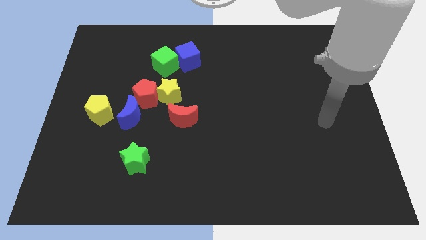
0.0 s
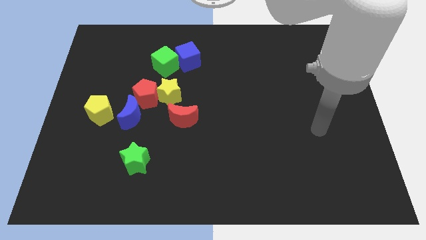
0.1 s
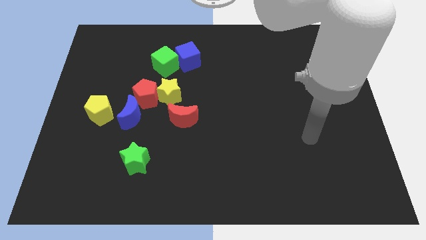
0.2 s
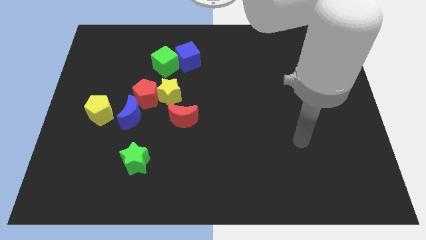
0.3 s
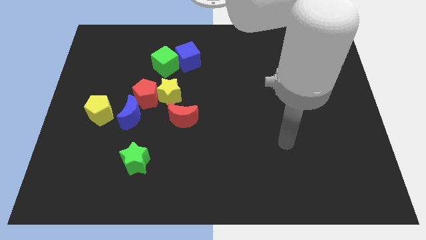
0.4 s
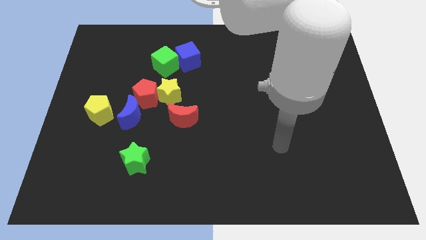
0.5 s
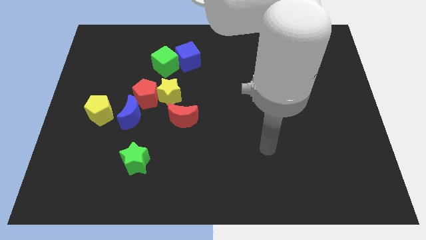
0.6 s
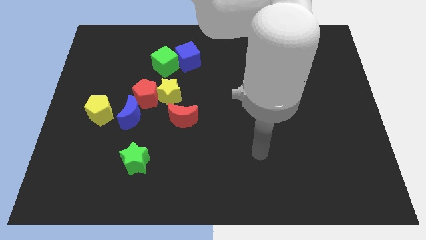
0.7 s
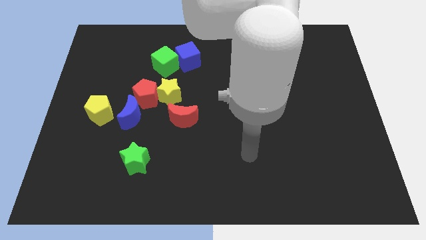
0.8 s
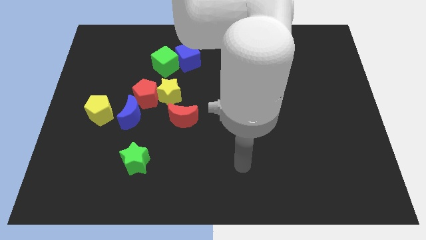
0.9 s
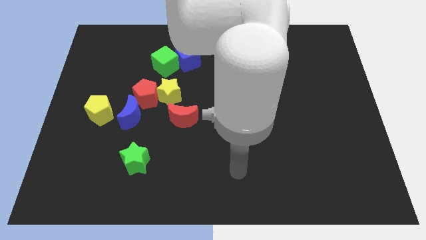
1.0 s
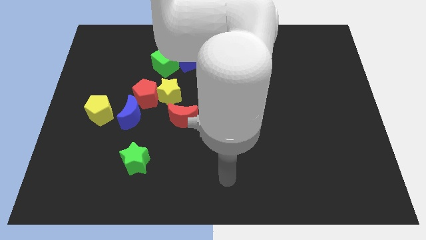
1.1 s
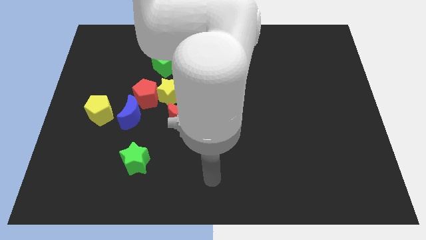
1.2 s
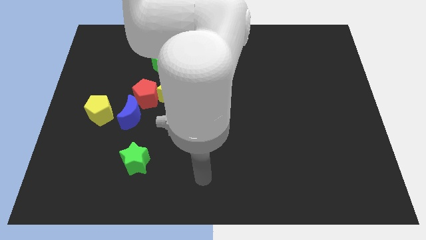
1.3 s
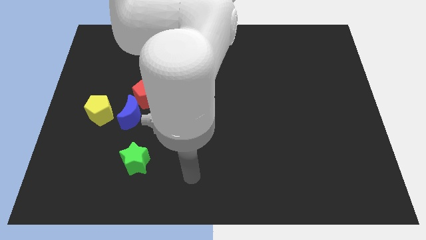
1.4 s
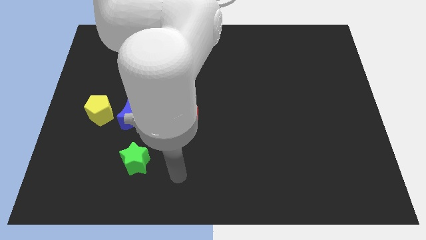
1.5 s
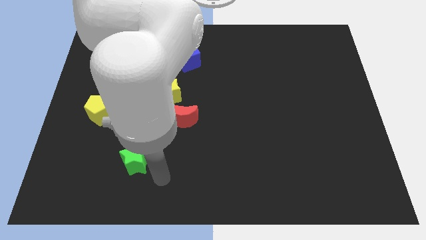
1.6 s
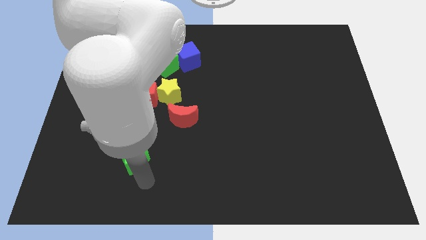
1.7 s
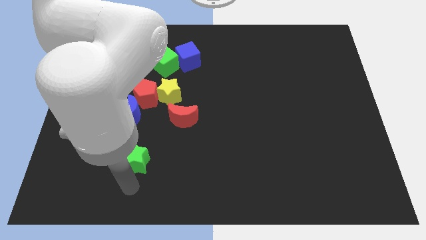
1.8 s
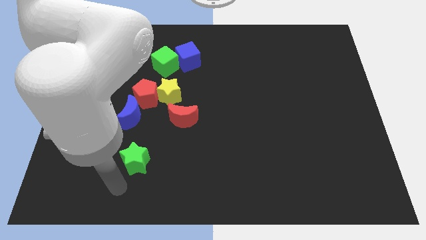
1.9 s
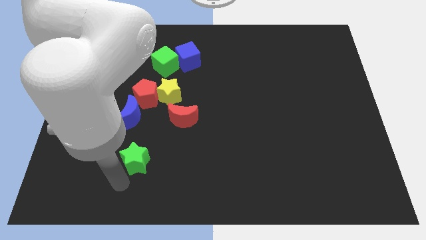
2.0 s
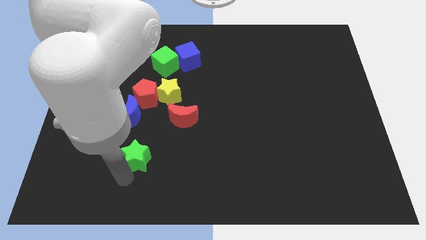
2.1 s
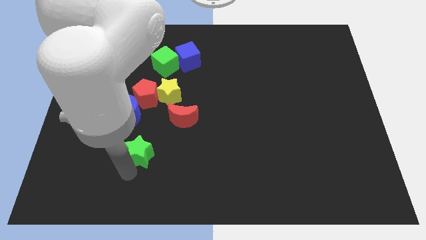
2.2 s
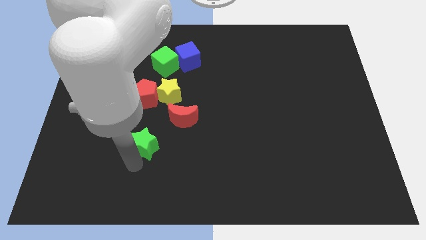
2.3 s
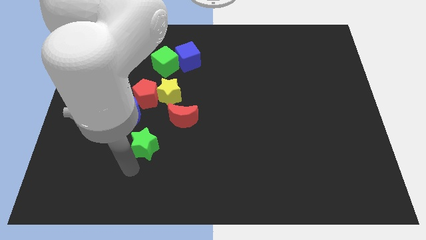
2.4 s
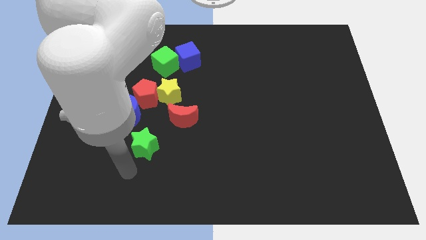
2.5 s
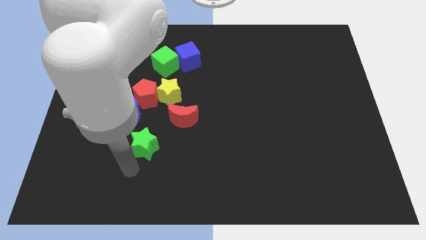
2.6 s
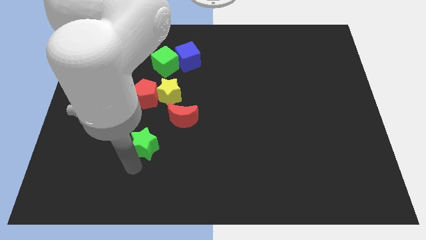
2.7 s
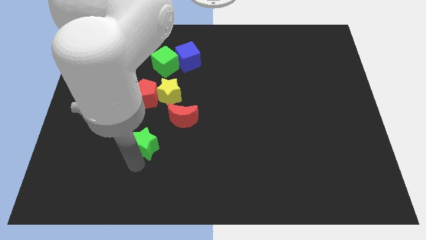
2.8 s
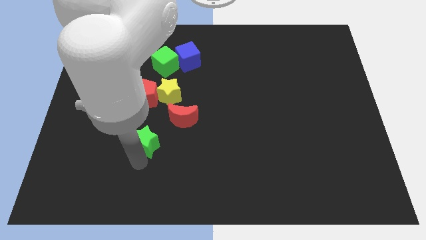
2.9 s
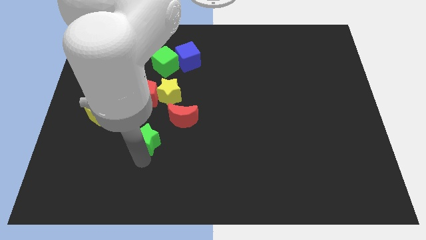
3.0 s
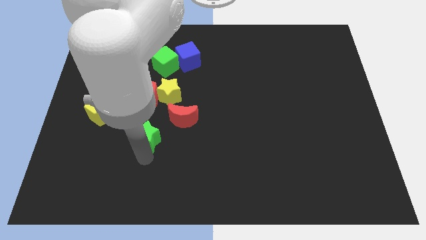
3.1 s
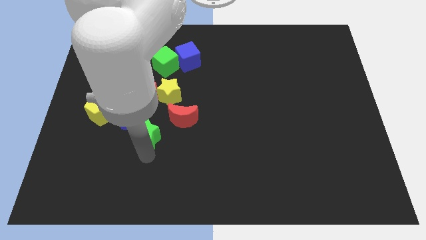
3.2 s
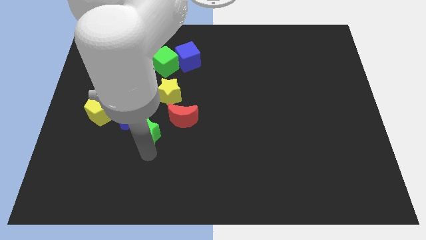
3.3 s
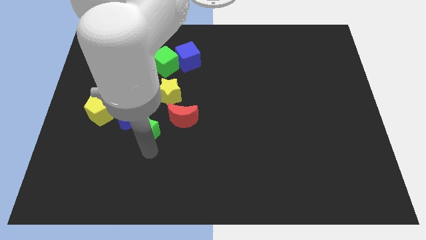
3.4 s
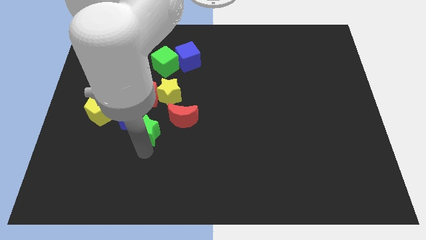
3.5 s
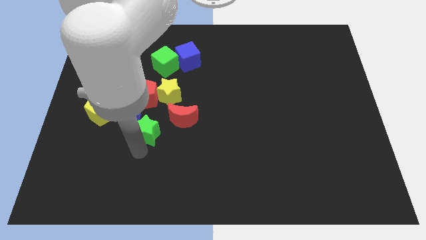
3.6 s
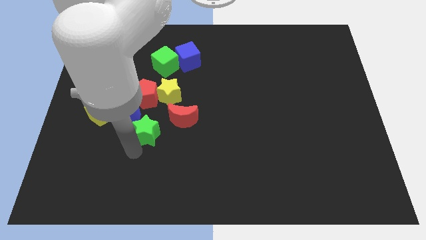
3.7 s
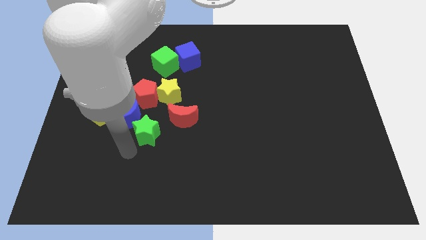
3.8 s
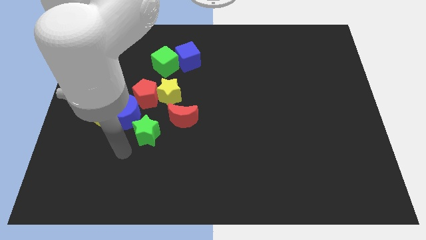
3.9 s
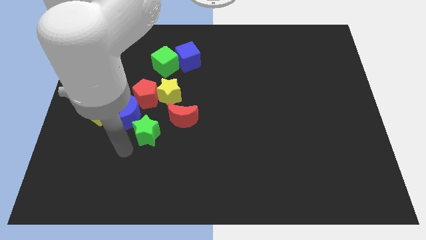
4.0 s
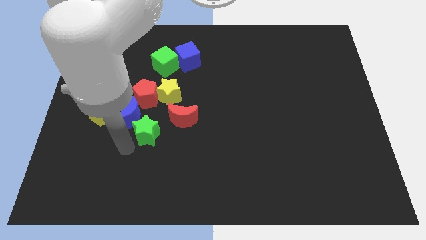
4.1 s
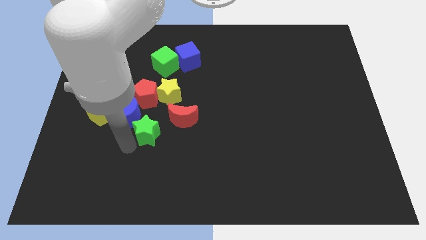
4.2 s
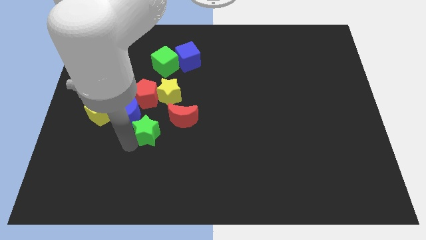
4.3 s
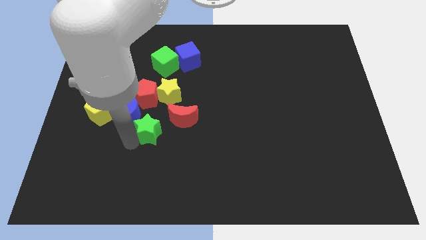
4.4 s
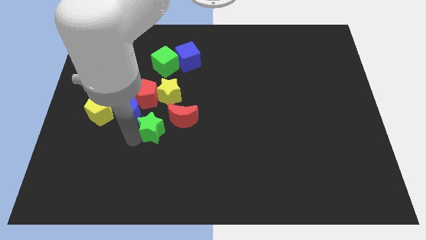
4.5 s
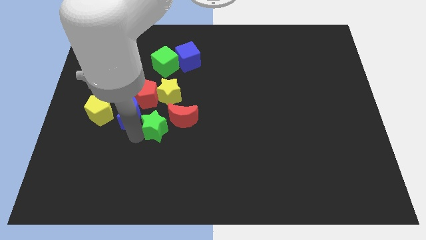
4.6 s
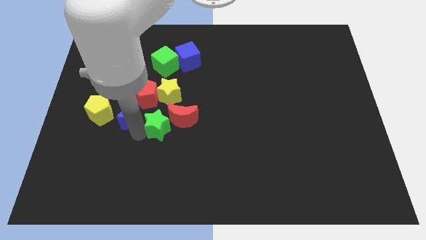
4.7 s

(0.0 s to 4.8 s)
slide the green star to the red moon

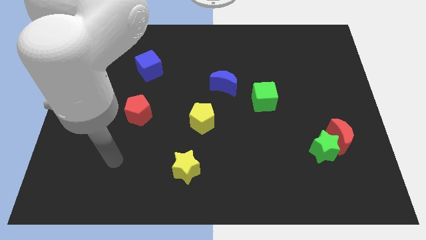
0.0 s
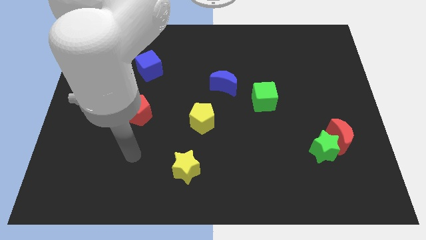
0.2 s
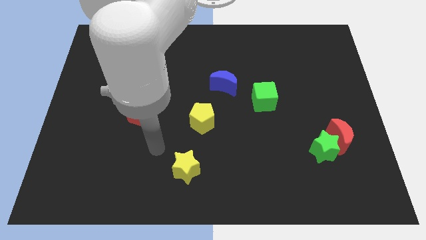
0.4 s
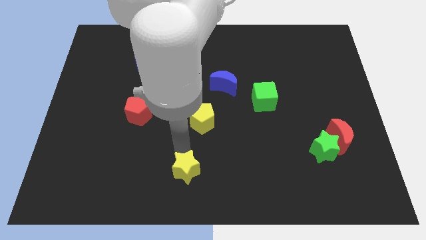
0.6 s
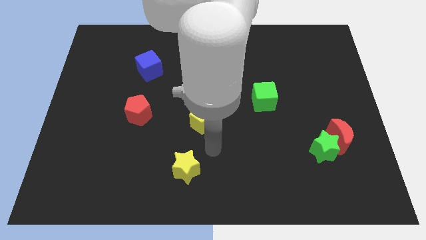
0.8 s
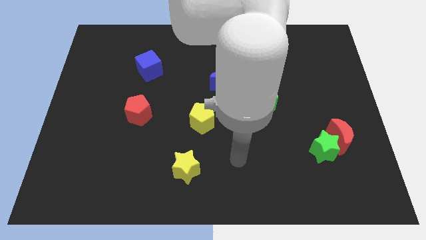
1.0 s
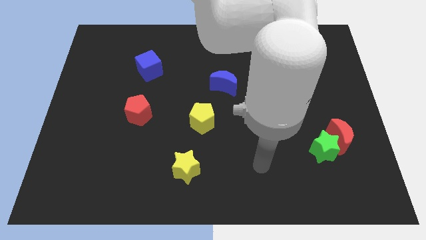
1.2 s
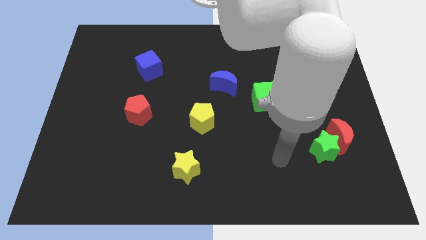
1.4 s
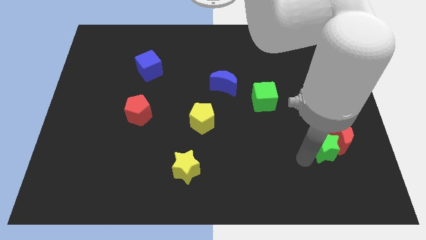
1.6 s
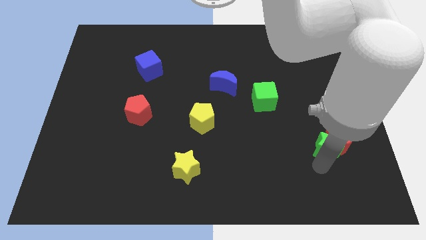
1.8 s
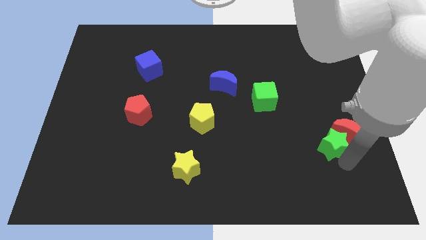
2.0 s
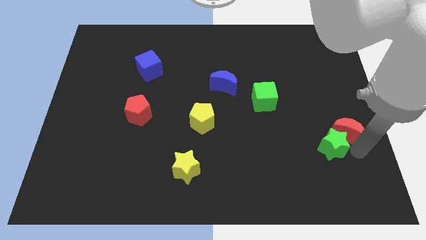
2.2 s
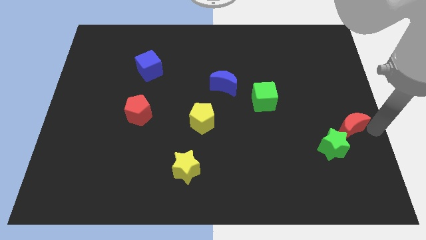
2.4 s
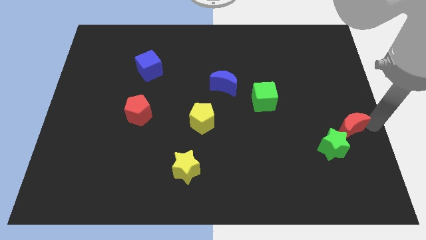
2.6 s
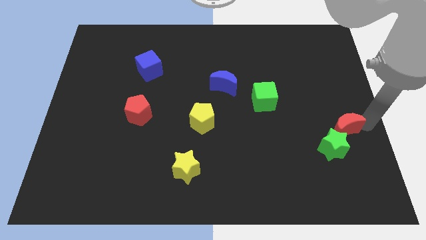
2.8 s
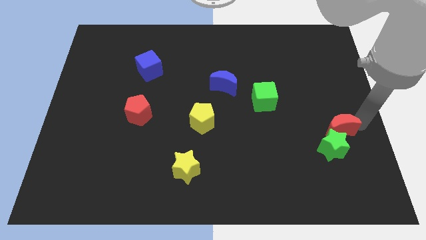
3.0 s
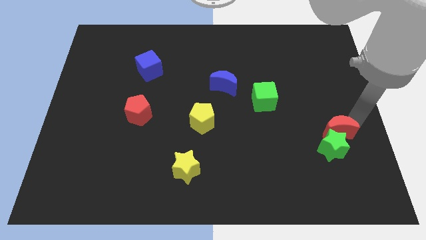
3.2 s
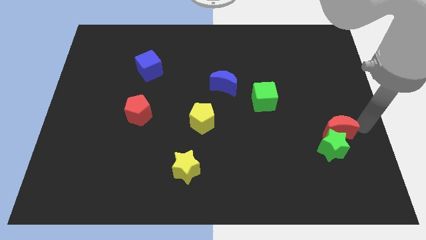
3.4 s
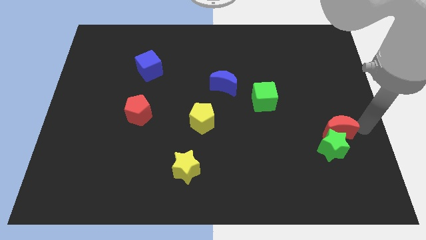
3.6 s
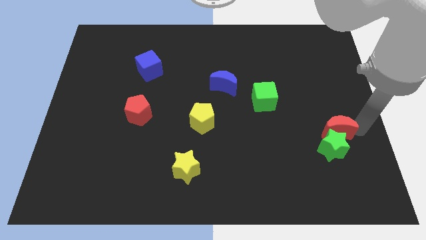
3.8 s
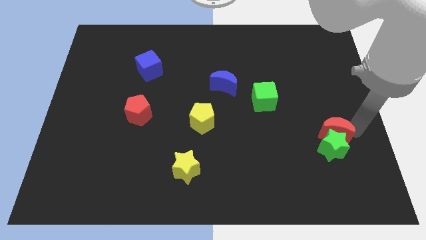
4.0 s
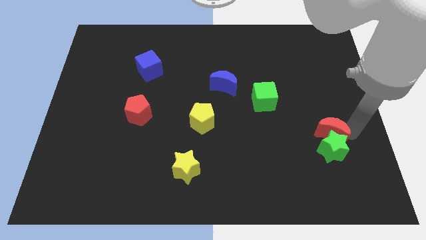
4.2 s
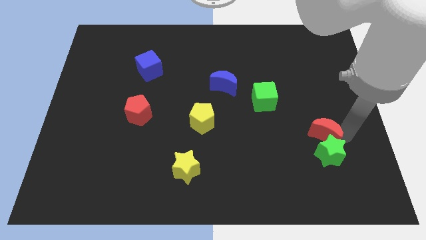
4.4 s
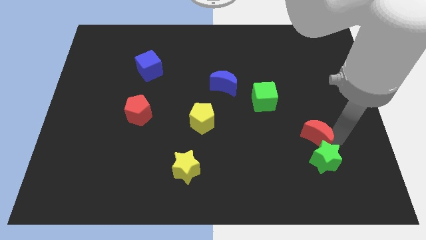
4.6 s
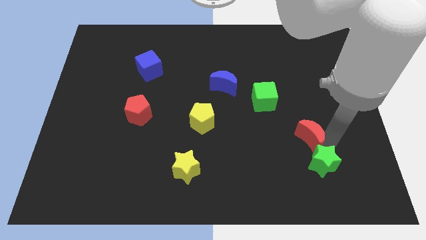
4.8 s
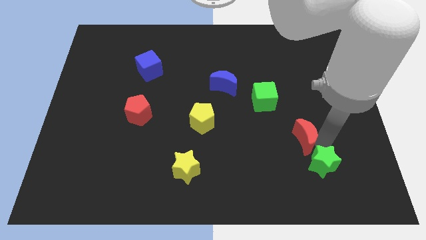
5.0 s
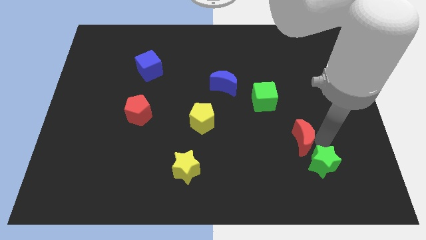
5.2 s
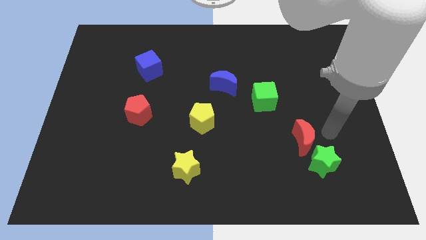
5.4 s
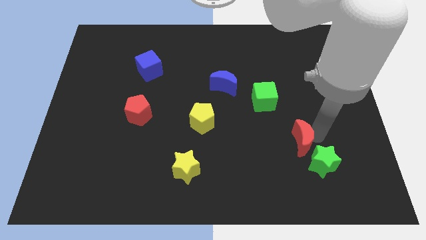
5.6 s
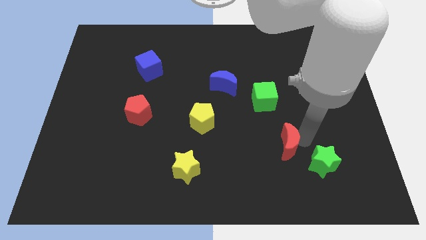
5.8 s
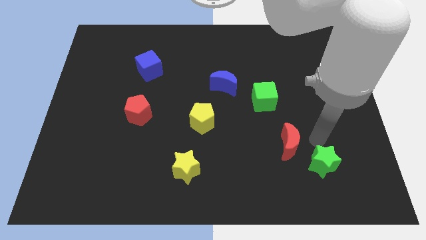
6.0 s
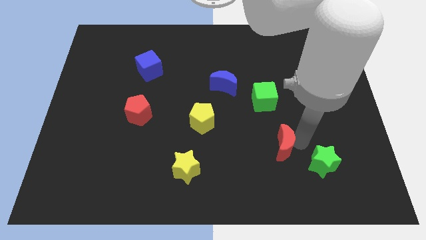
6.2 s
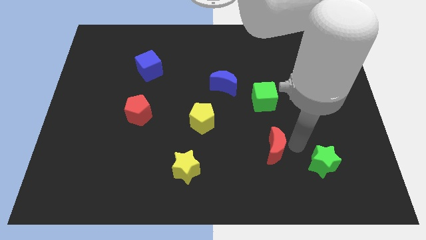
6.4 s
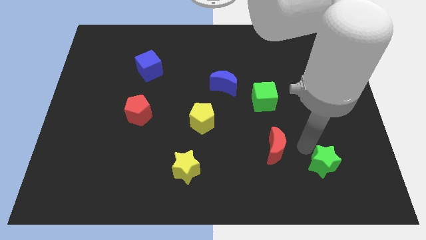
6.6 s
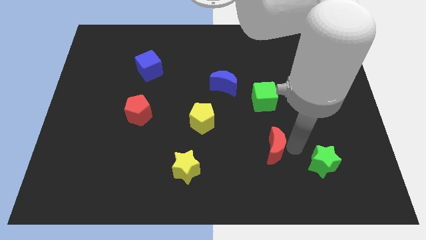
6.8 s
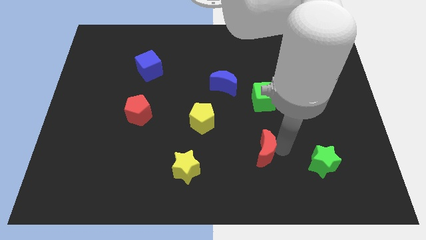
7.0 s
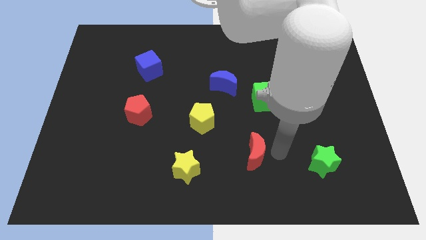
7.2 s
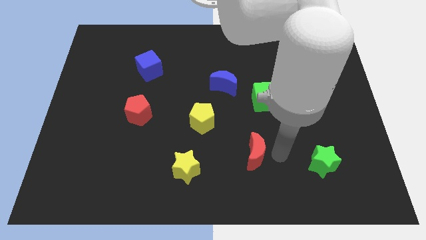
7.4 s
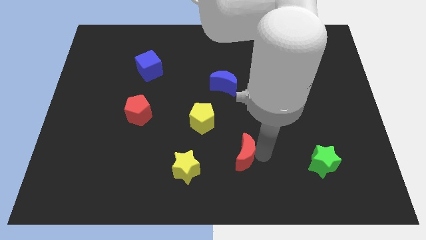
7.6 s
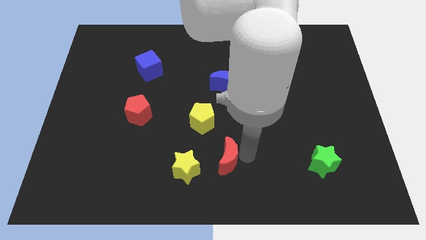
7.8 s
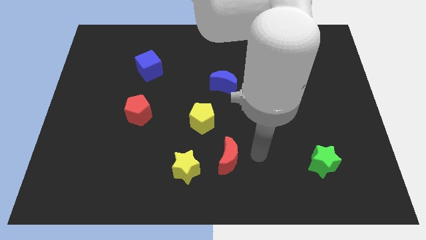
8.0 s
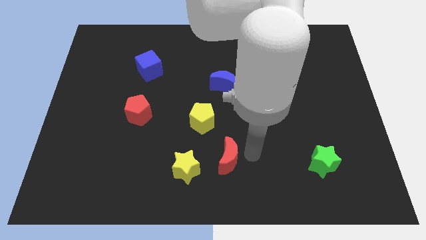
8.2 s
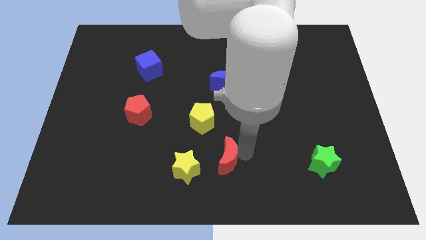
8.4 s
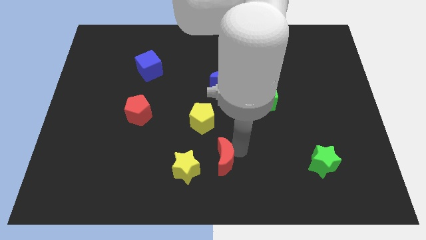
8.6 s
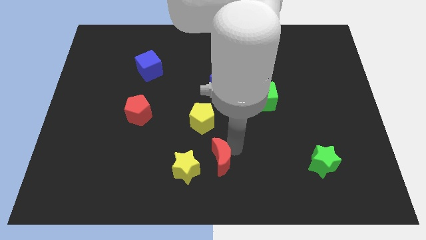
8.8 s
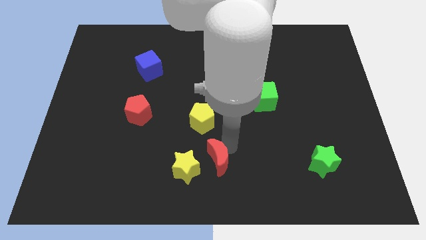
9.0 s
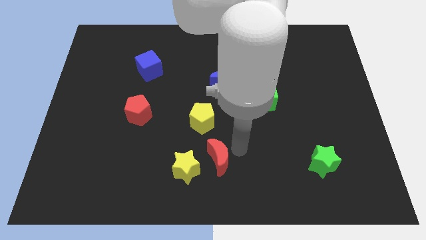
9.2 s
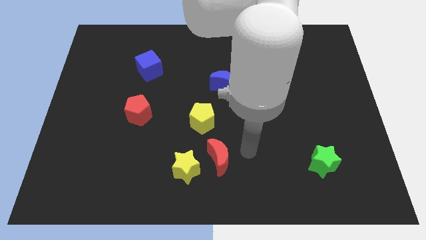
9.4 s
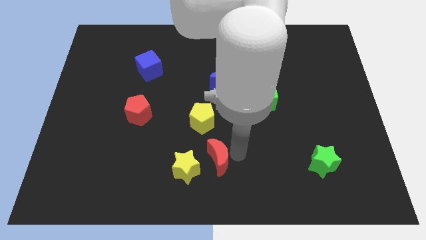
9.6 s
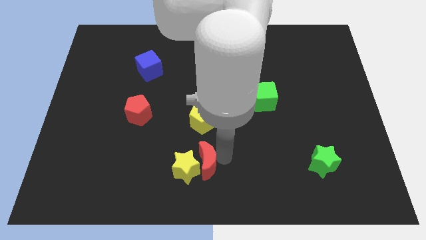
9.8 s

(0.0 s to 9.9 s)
put the red moon next to the yellow star
